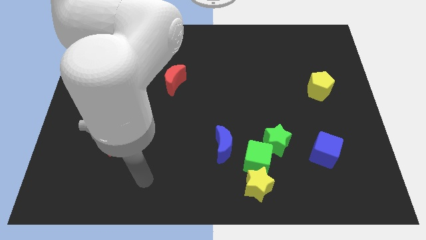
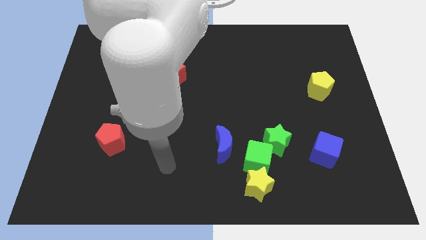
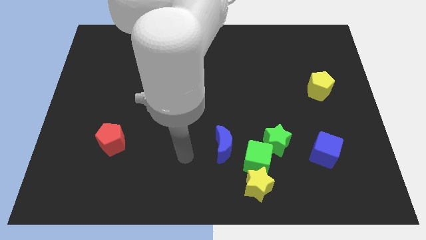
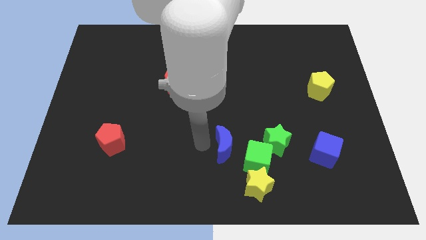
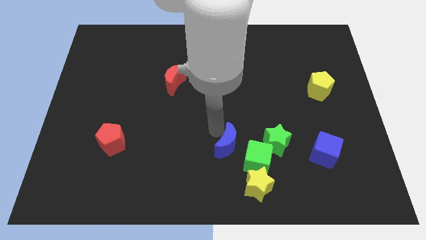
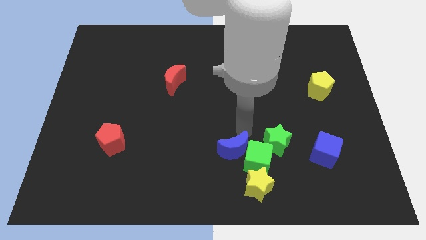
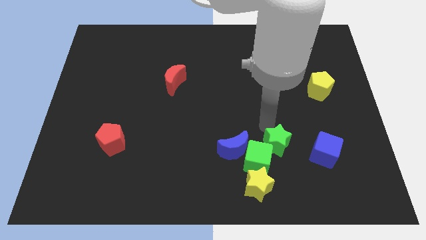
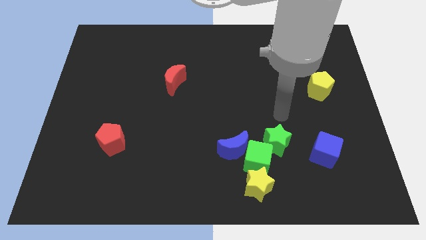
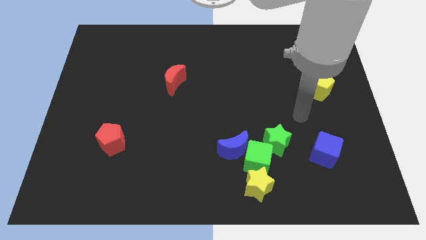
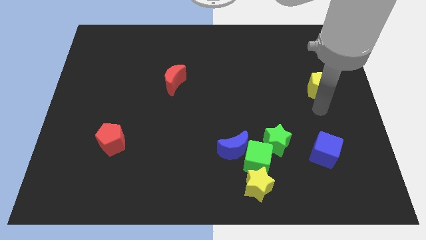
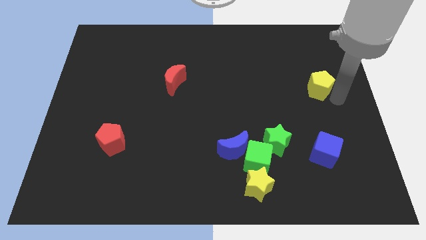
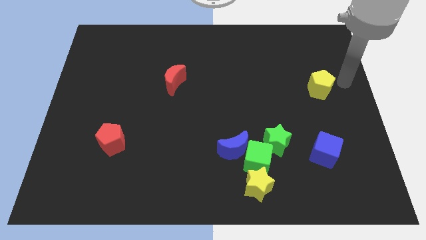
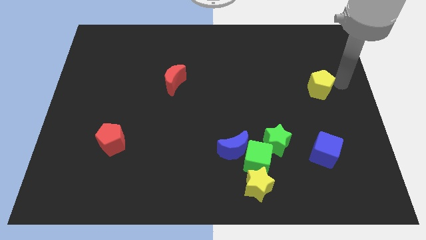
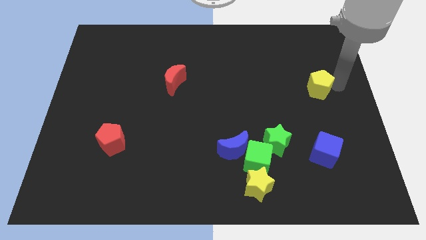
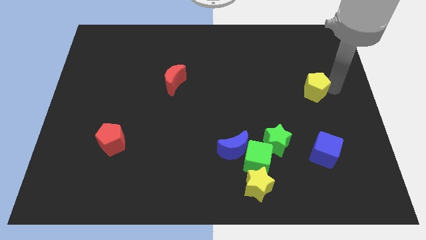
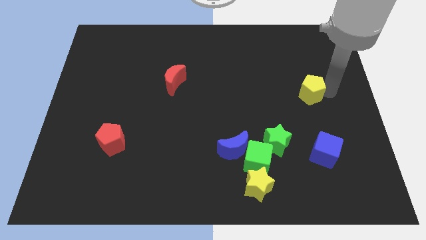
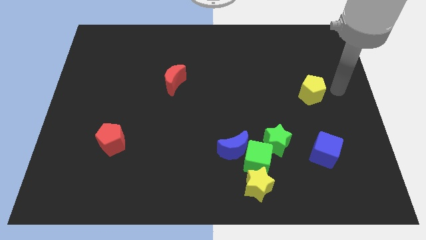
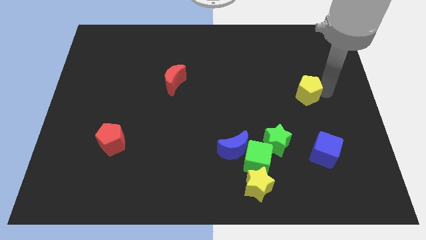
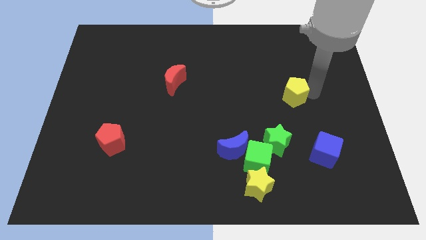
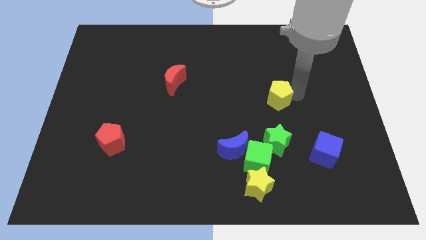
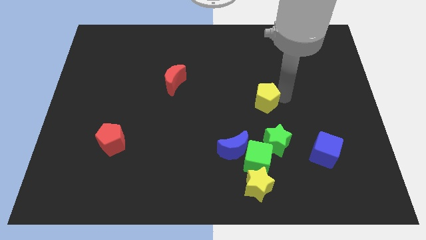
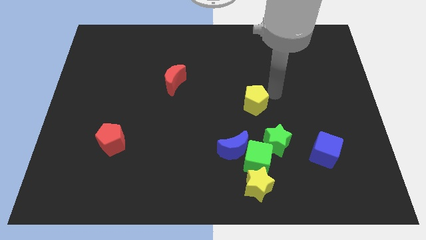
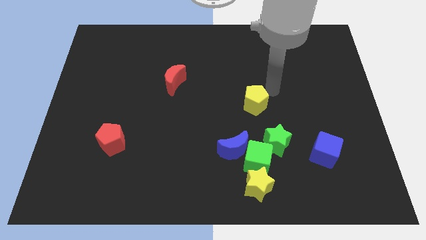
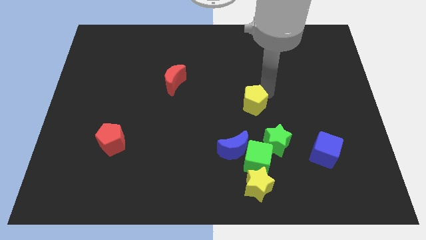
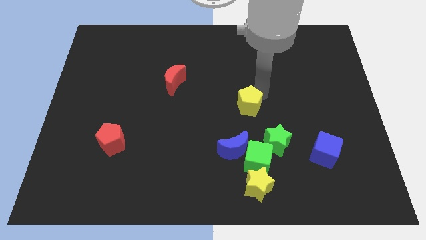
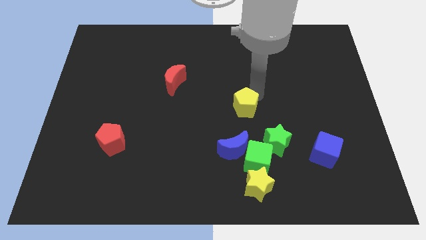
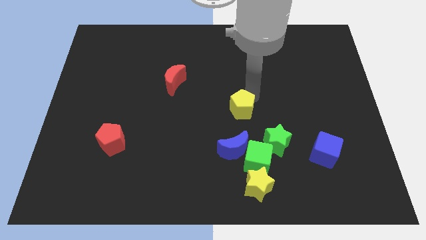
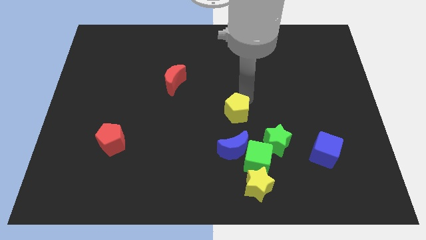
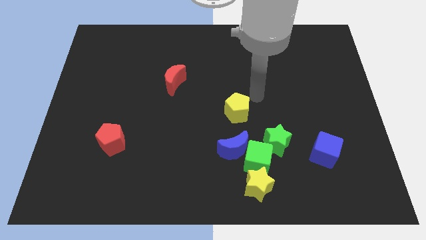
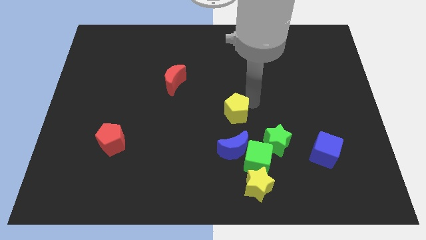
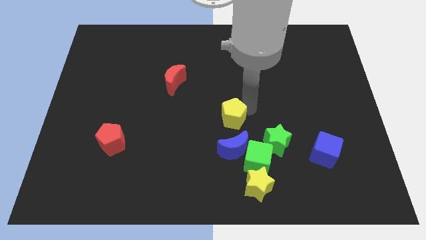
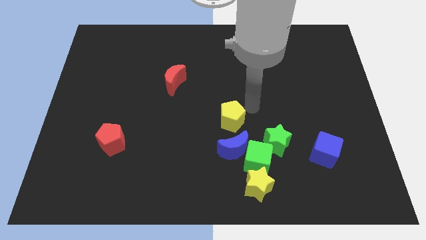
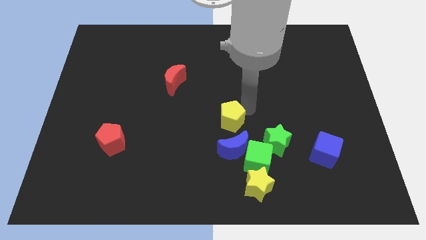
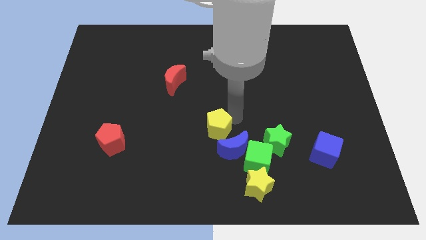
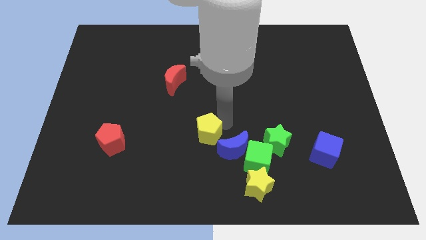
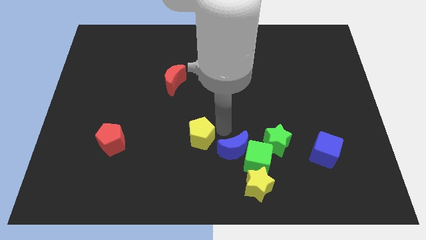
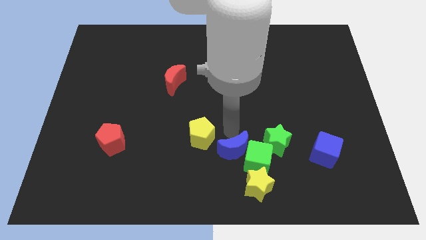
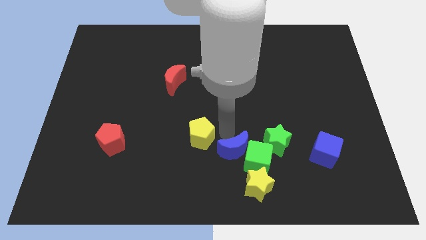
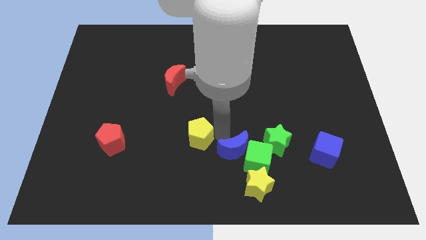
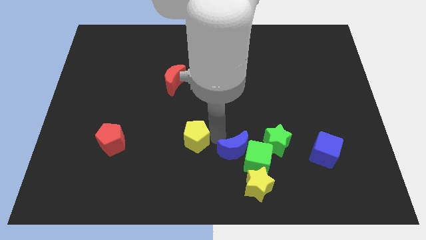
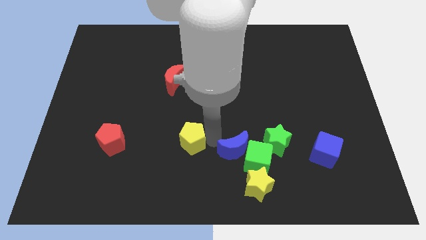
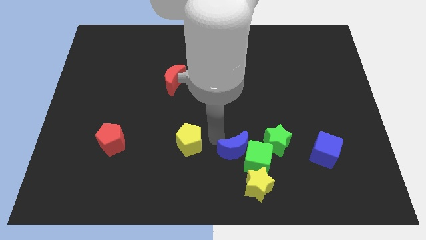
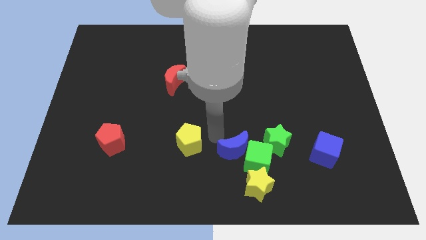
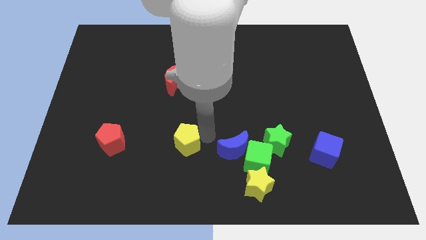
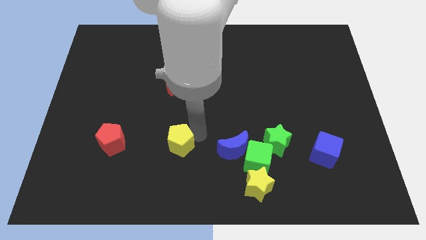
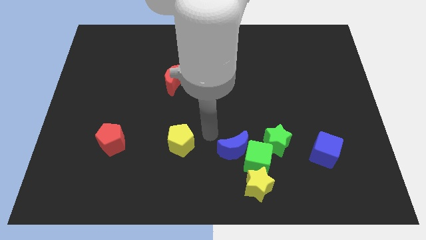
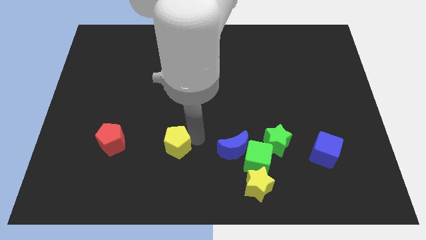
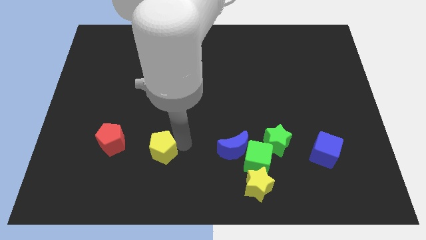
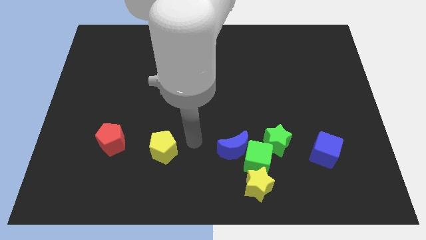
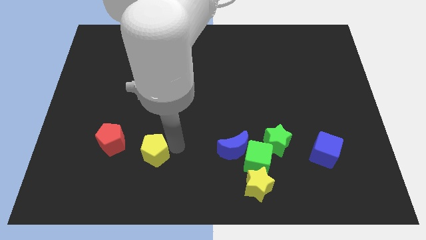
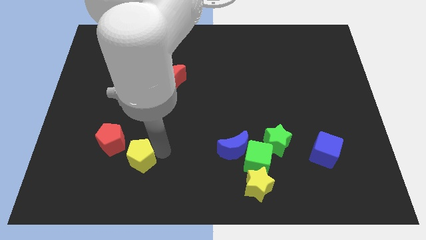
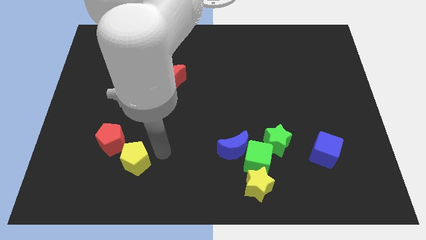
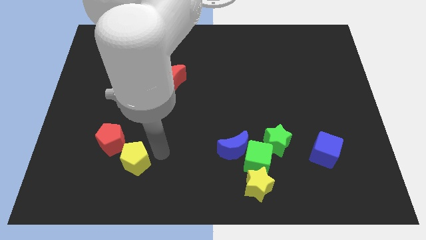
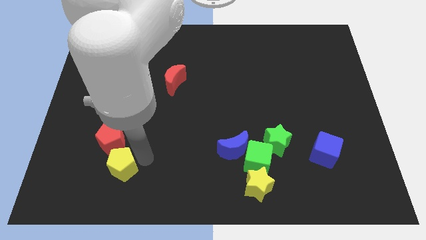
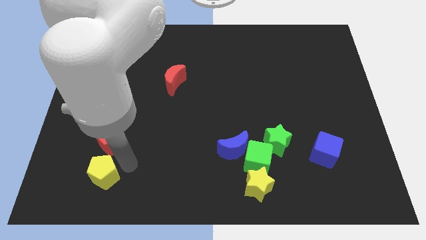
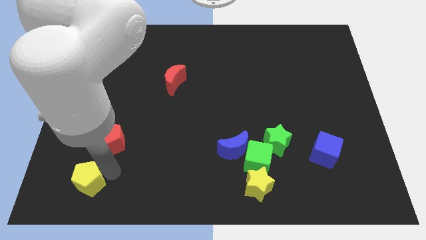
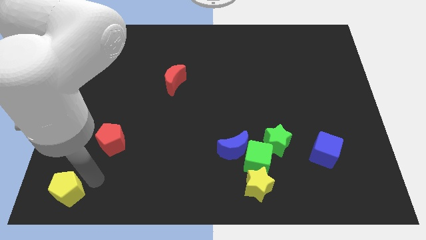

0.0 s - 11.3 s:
slide the yellow pentagon to the bottom left corner

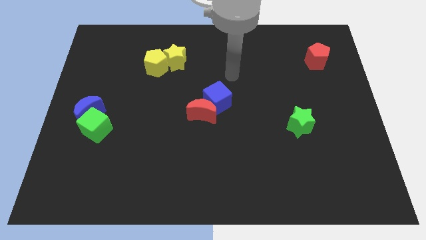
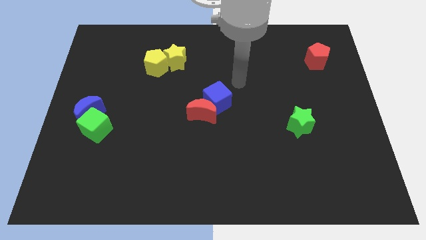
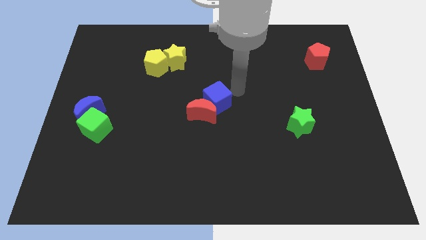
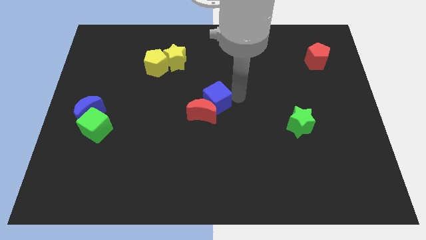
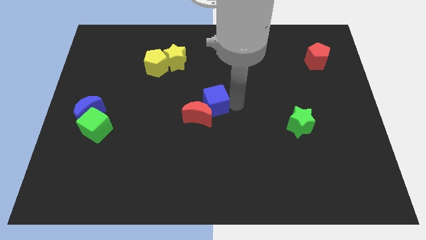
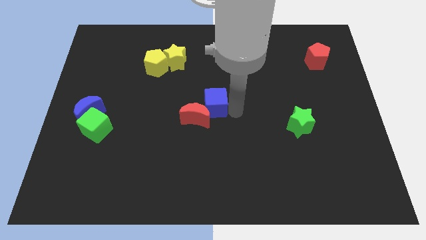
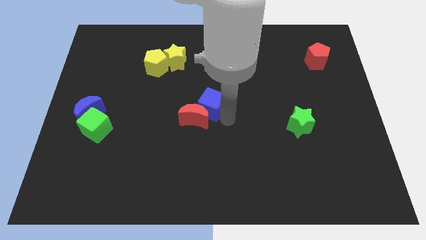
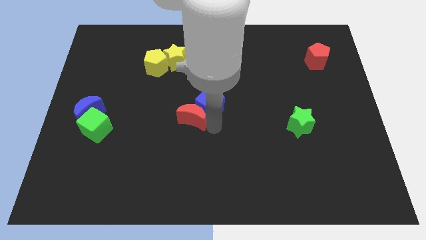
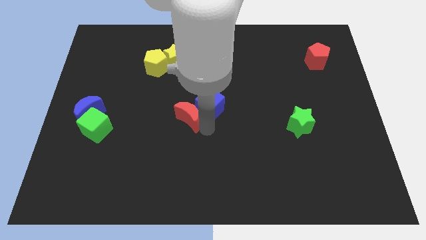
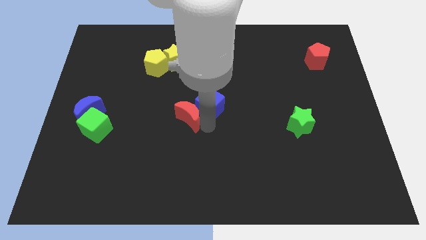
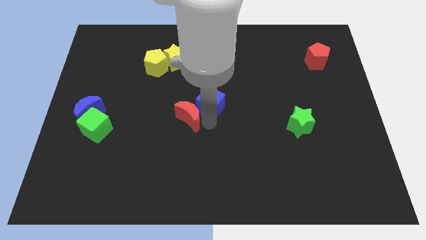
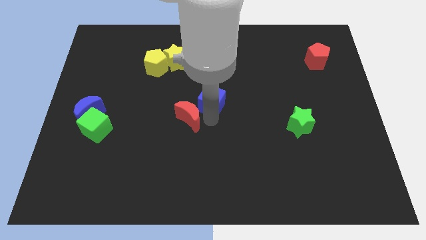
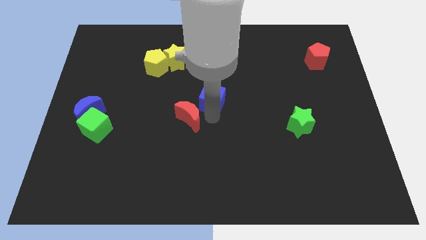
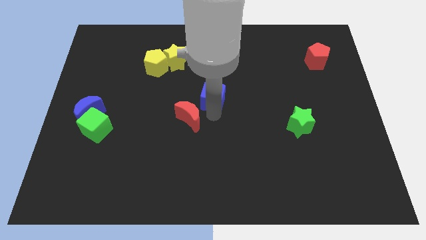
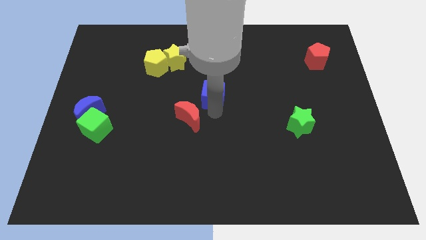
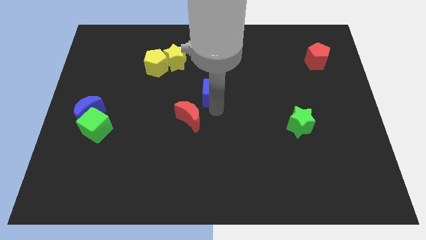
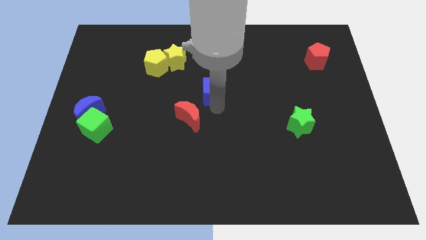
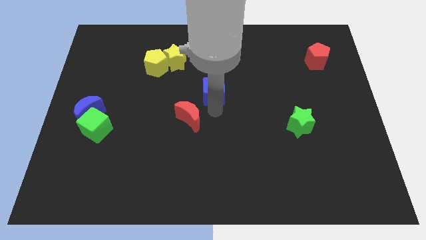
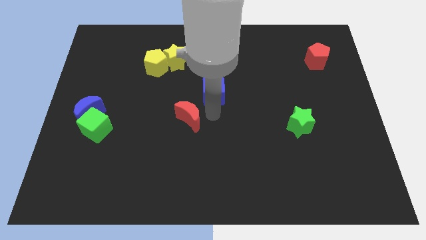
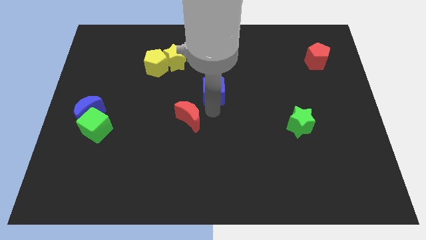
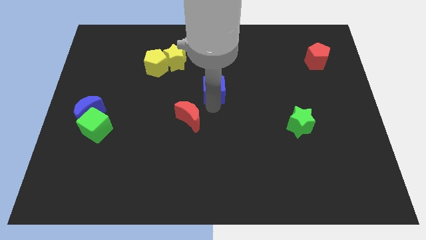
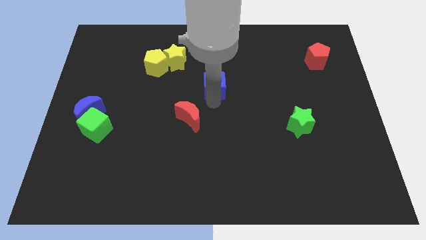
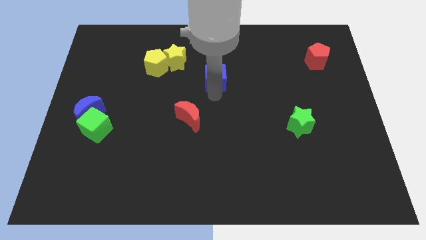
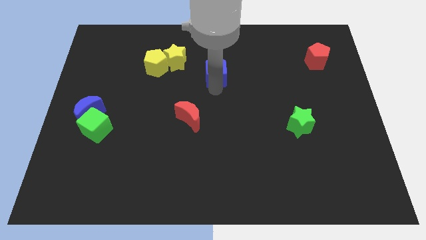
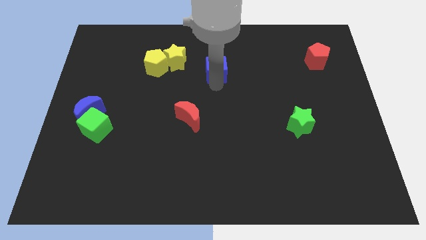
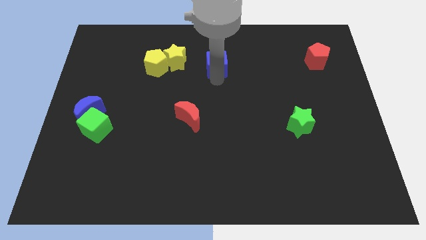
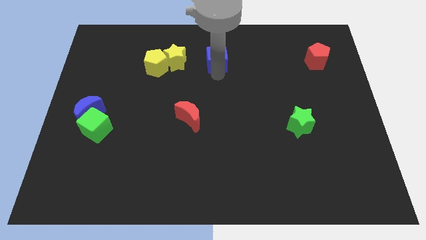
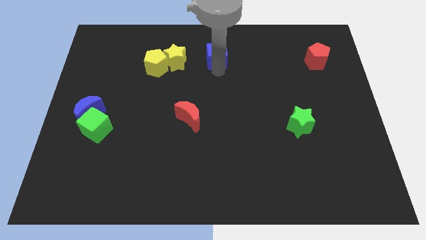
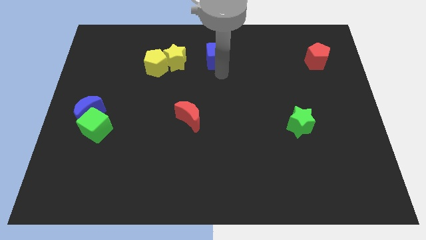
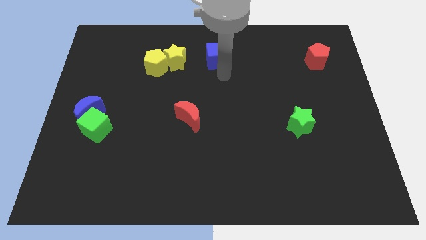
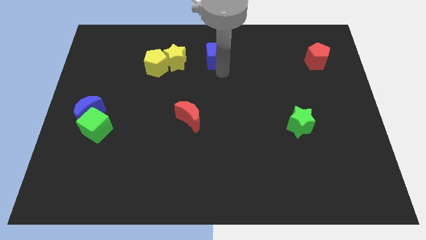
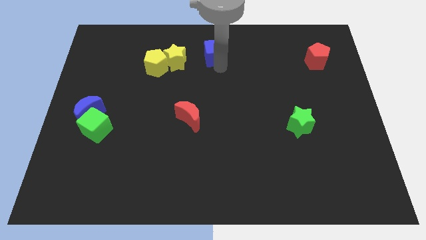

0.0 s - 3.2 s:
slide the blue cube to the top
